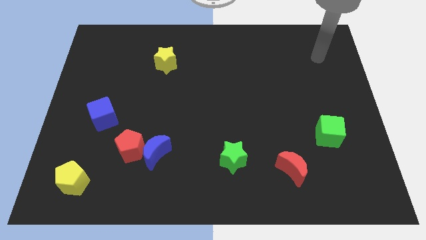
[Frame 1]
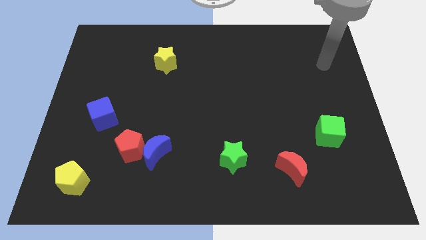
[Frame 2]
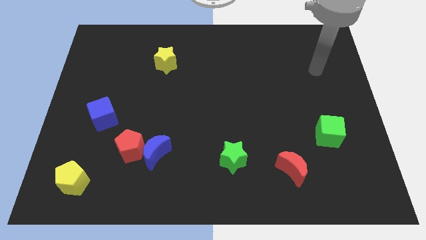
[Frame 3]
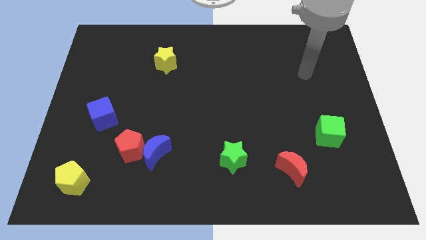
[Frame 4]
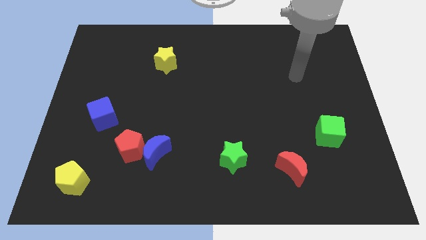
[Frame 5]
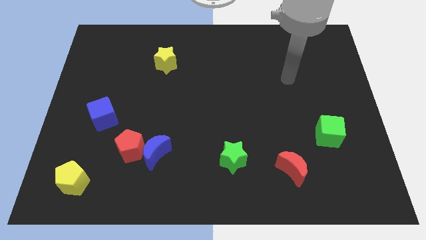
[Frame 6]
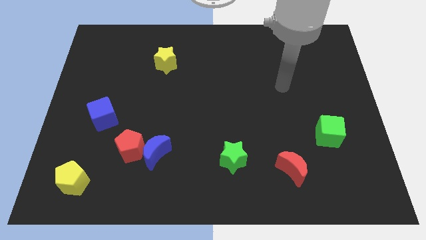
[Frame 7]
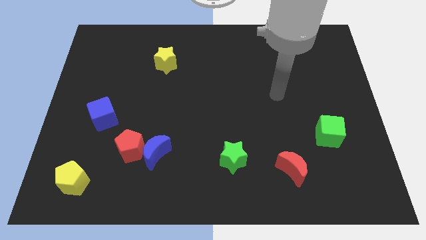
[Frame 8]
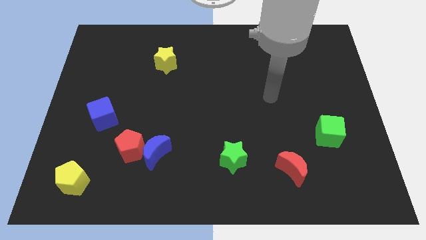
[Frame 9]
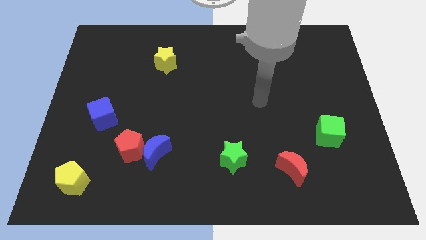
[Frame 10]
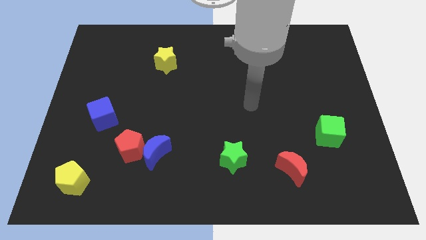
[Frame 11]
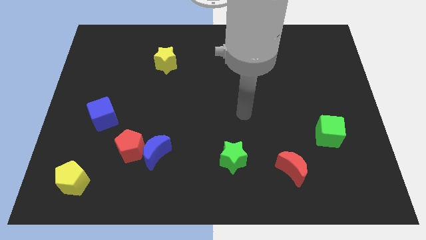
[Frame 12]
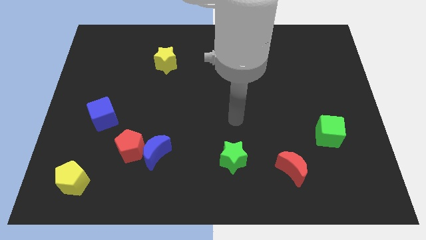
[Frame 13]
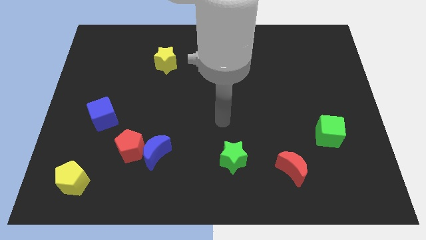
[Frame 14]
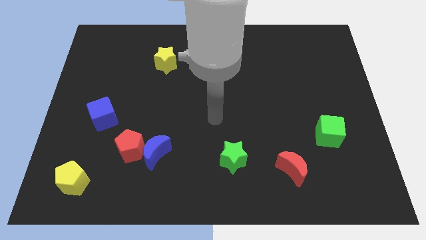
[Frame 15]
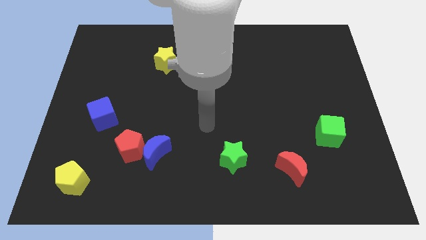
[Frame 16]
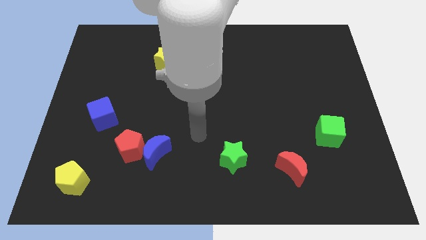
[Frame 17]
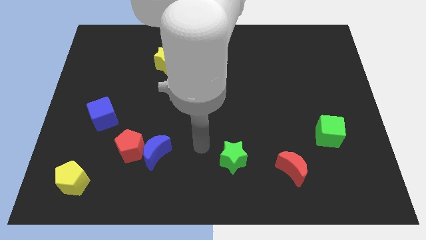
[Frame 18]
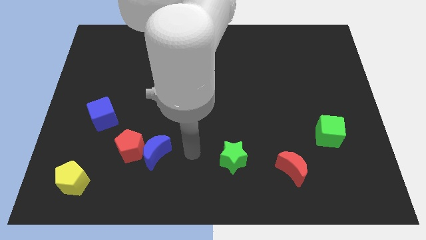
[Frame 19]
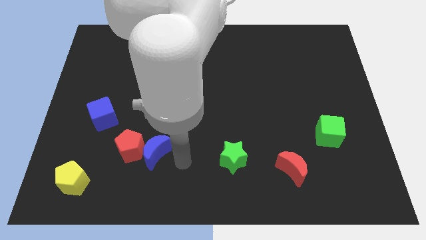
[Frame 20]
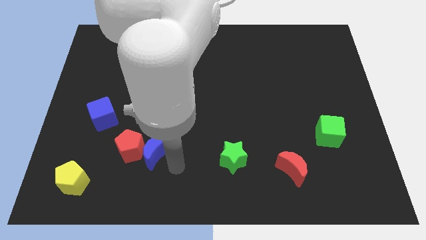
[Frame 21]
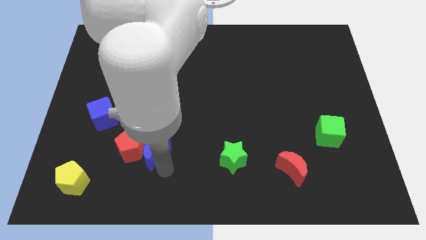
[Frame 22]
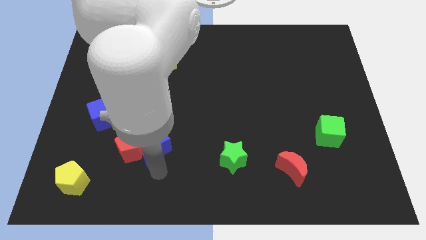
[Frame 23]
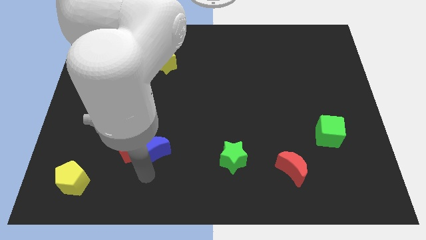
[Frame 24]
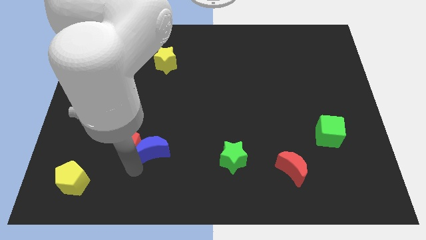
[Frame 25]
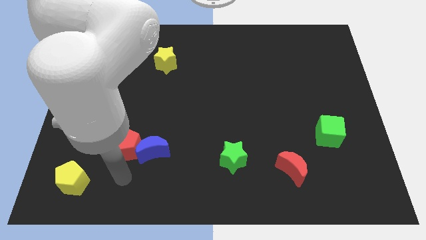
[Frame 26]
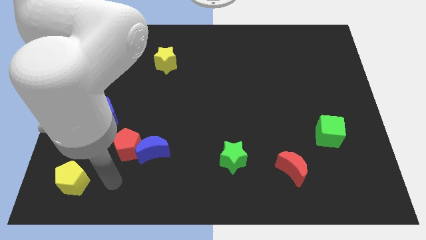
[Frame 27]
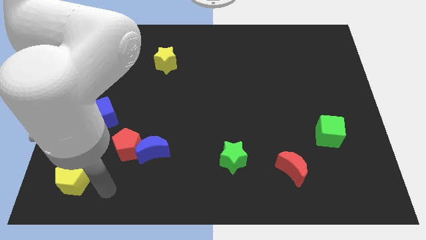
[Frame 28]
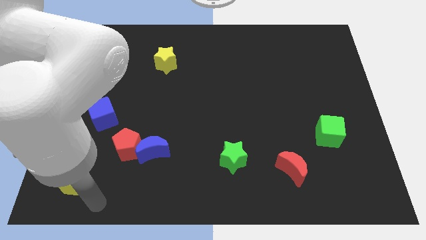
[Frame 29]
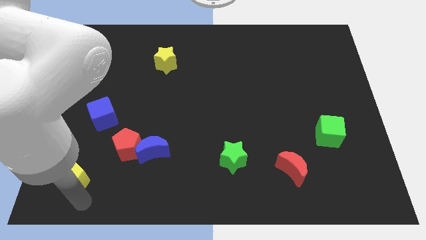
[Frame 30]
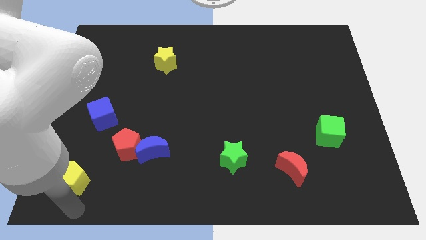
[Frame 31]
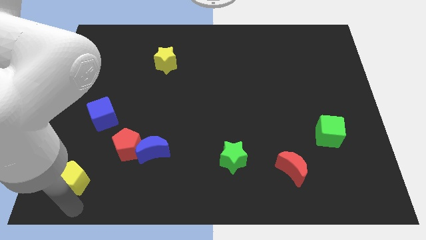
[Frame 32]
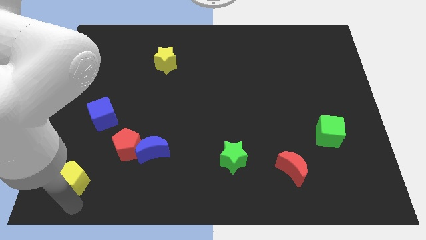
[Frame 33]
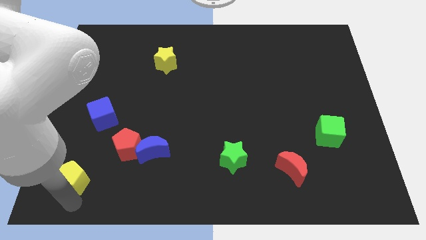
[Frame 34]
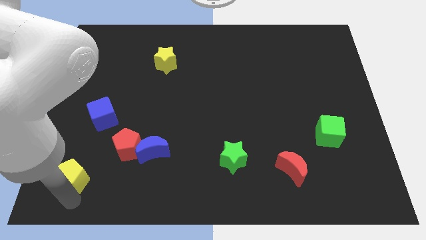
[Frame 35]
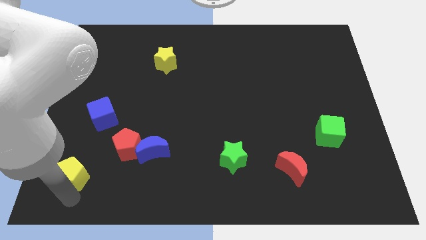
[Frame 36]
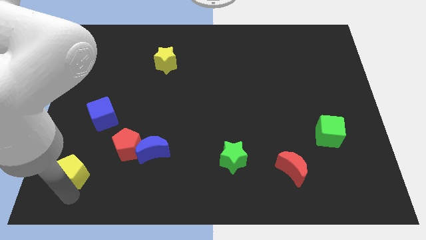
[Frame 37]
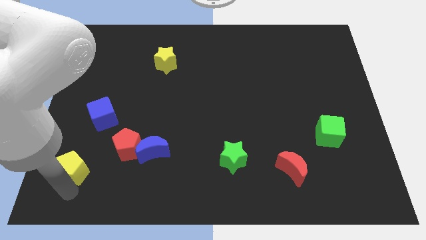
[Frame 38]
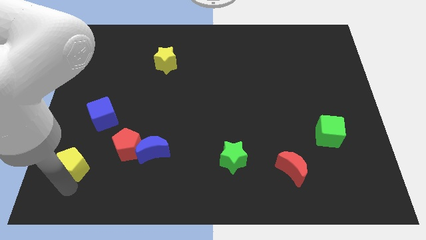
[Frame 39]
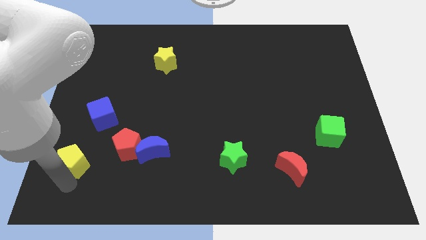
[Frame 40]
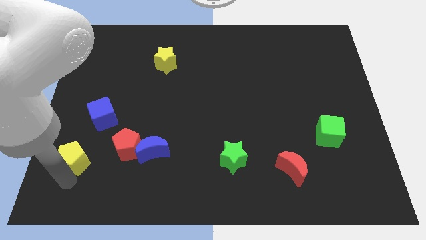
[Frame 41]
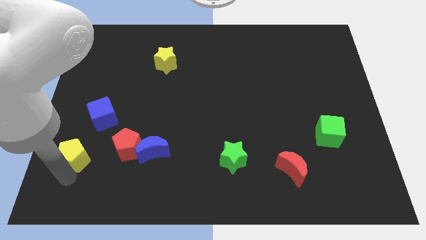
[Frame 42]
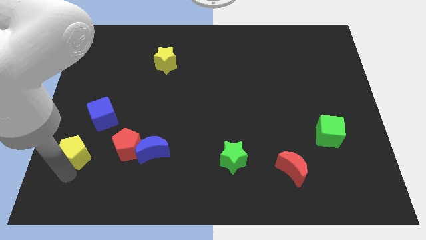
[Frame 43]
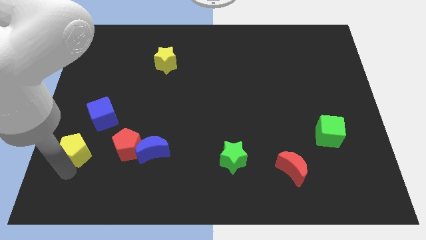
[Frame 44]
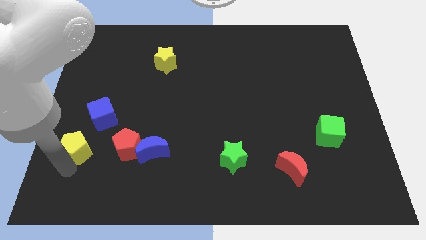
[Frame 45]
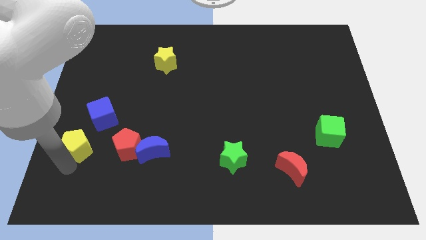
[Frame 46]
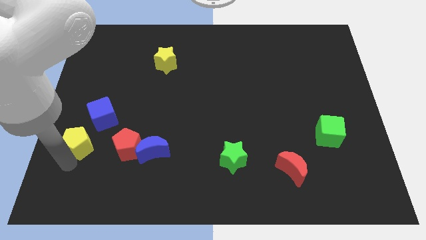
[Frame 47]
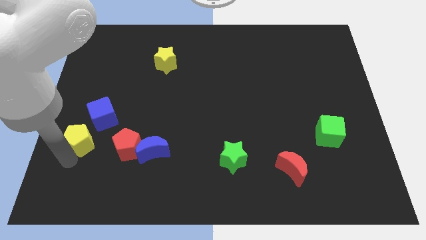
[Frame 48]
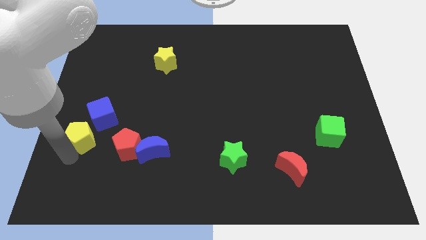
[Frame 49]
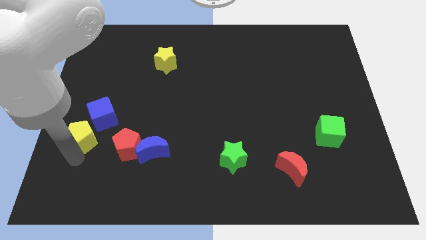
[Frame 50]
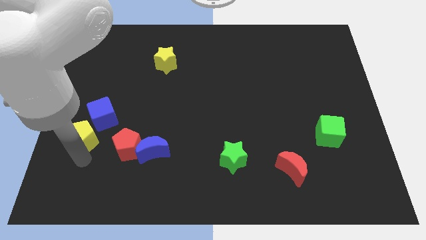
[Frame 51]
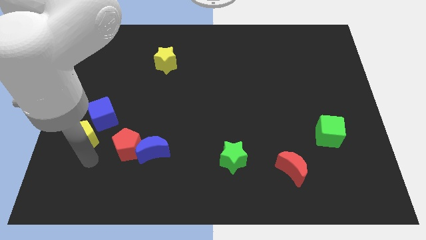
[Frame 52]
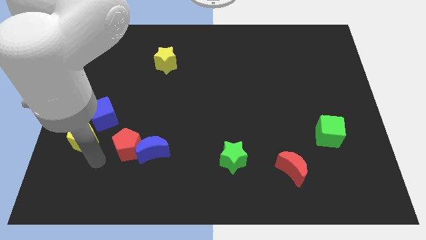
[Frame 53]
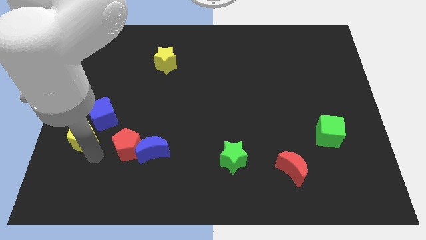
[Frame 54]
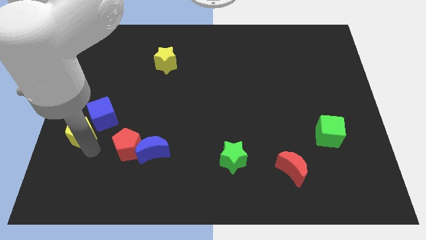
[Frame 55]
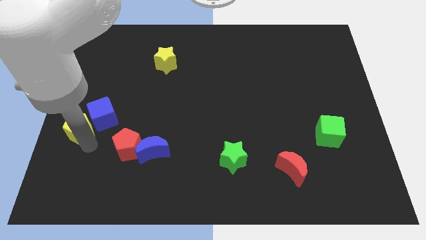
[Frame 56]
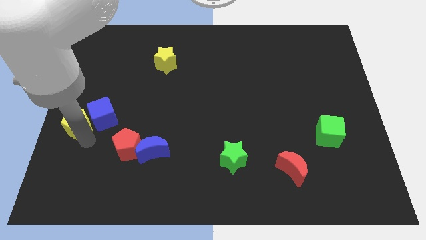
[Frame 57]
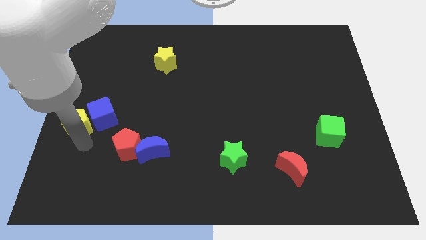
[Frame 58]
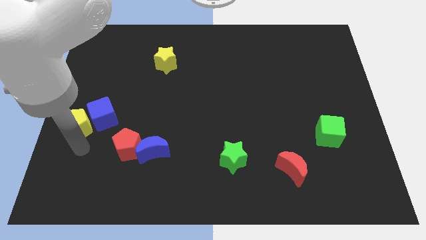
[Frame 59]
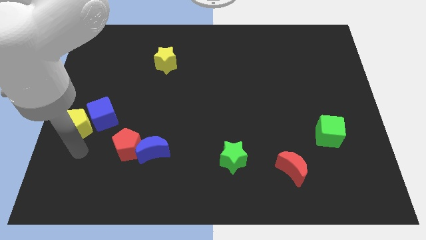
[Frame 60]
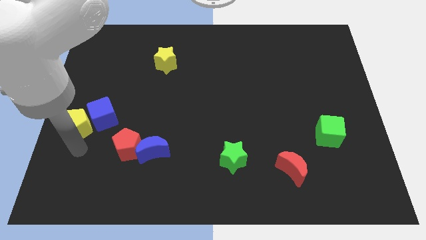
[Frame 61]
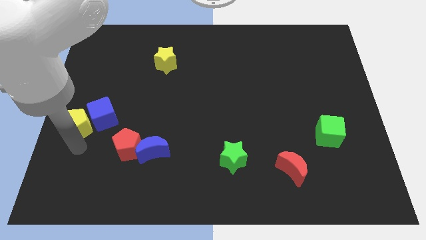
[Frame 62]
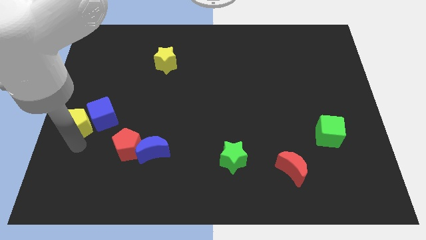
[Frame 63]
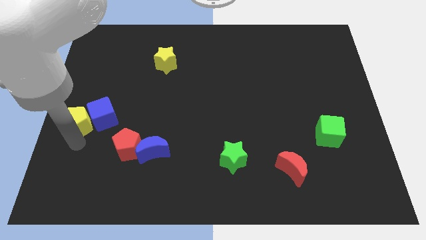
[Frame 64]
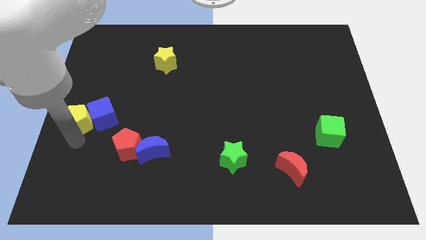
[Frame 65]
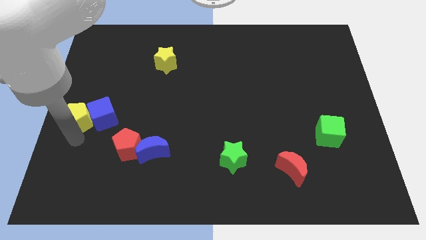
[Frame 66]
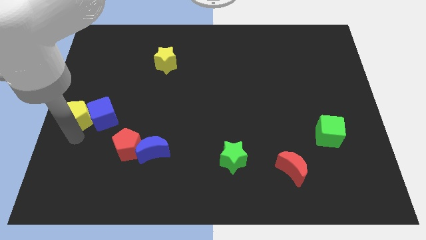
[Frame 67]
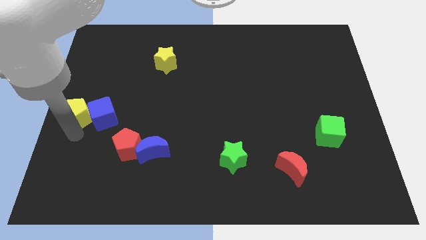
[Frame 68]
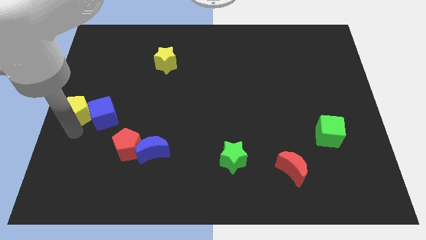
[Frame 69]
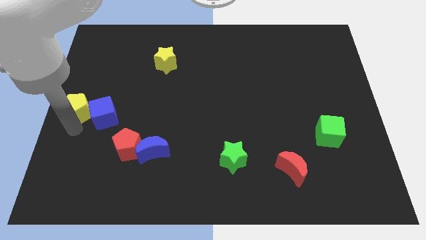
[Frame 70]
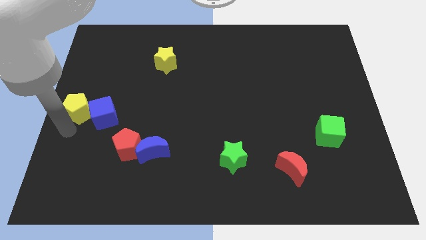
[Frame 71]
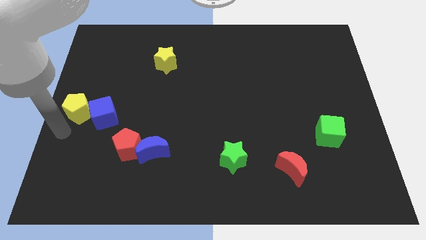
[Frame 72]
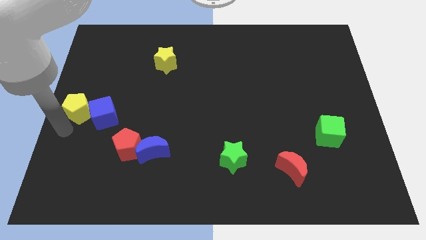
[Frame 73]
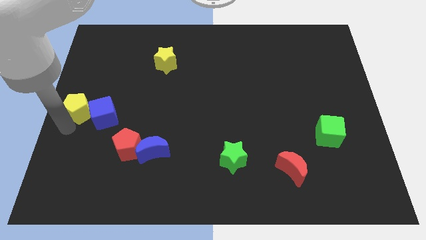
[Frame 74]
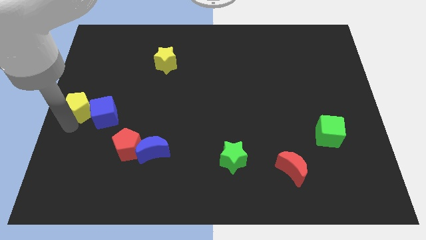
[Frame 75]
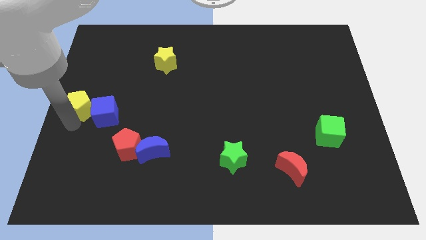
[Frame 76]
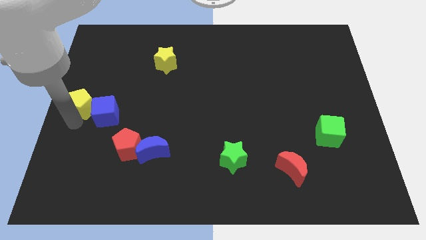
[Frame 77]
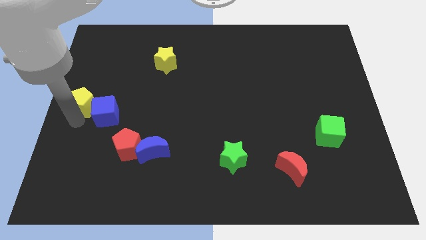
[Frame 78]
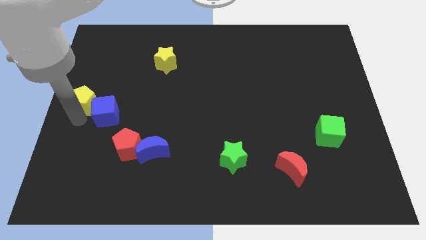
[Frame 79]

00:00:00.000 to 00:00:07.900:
slide the yellow pentagon up
